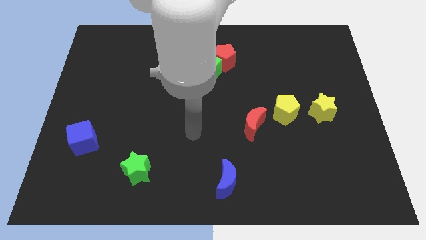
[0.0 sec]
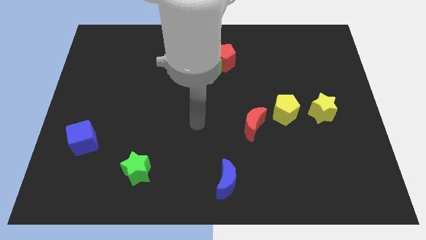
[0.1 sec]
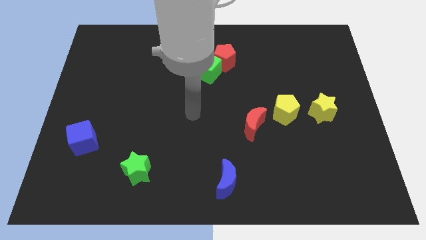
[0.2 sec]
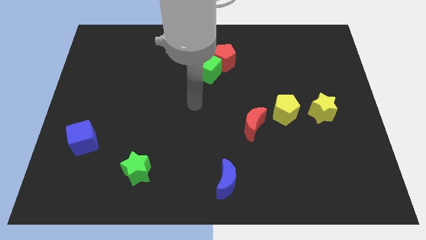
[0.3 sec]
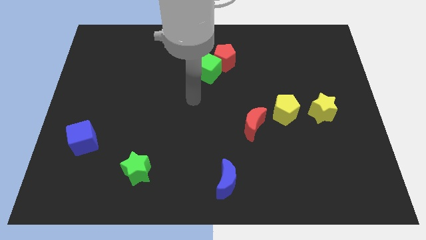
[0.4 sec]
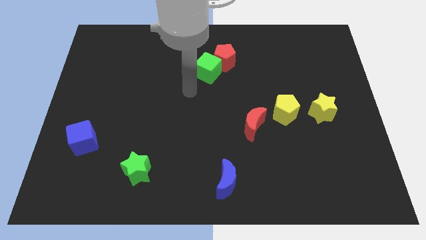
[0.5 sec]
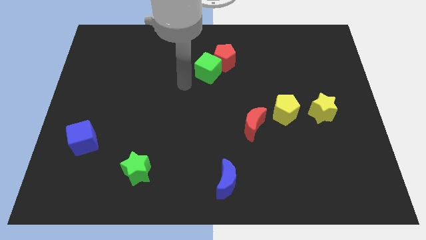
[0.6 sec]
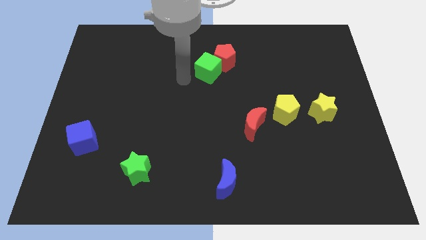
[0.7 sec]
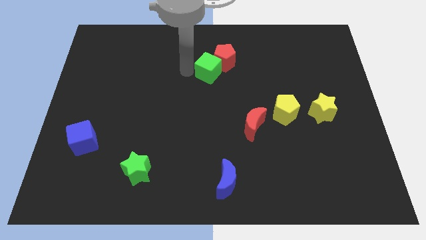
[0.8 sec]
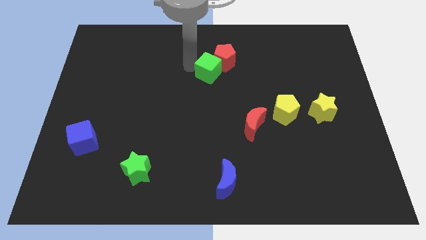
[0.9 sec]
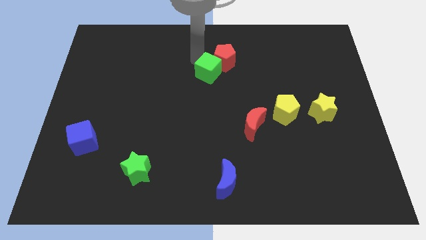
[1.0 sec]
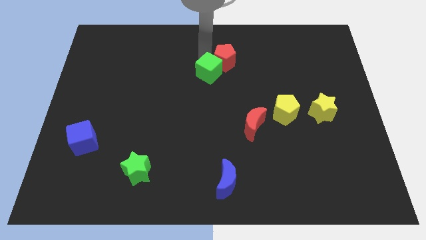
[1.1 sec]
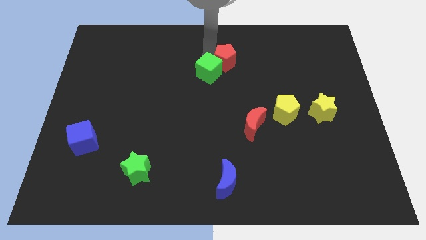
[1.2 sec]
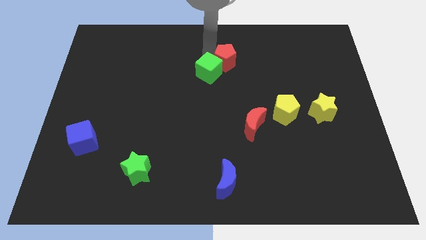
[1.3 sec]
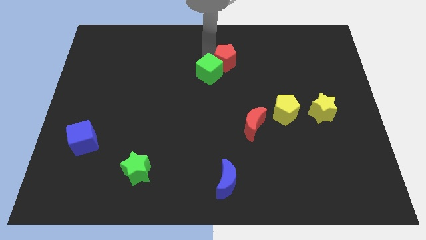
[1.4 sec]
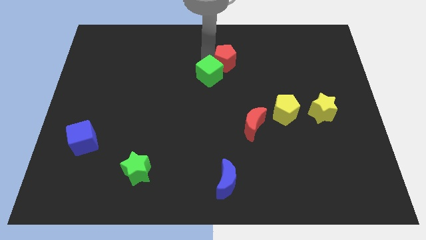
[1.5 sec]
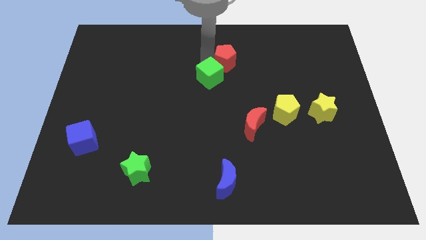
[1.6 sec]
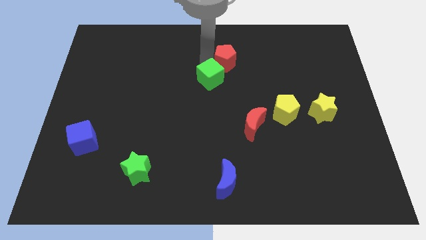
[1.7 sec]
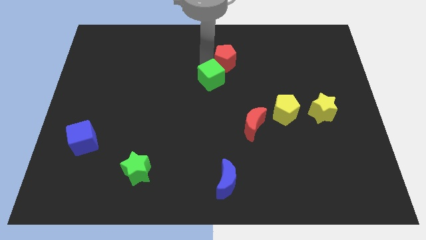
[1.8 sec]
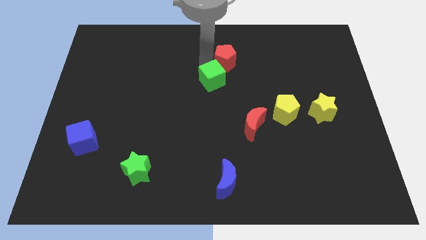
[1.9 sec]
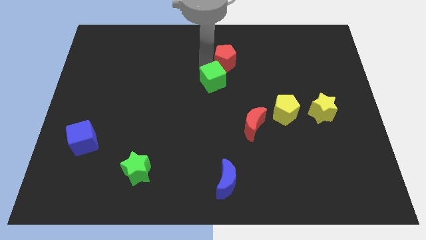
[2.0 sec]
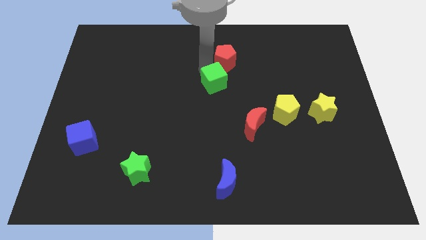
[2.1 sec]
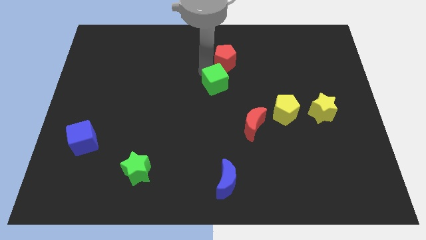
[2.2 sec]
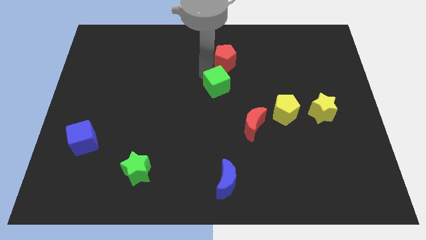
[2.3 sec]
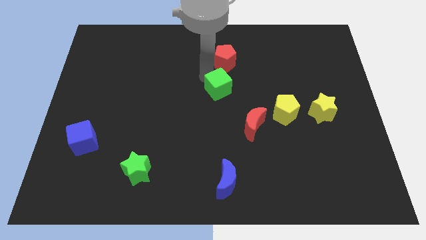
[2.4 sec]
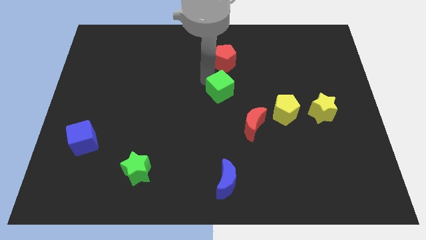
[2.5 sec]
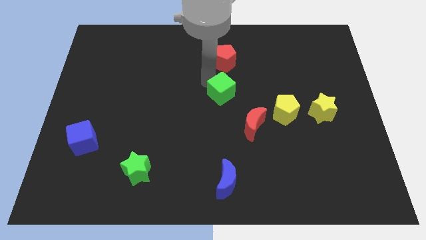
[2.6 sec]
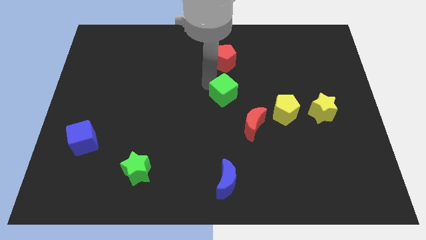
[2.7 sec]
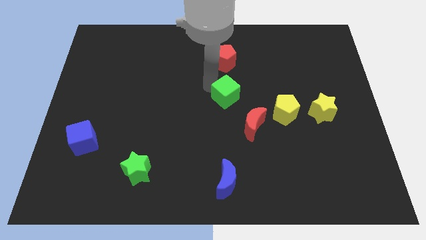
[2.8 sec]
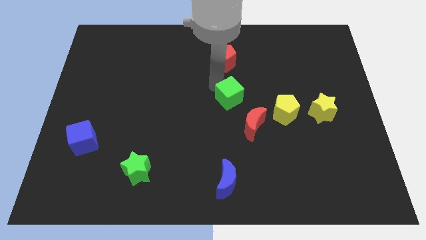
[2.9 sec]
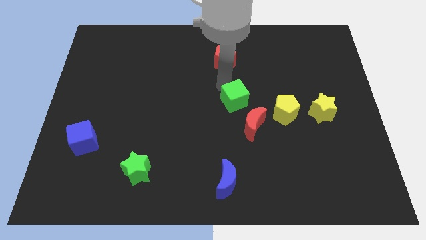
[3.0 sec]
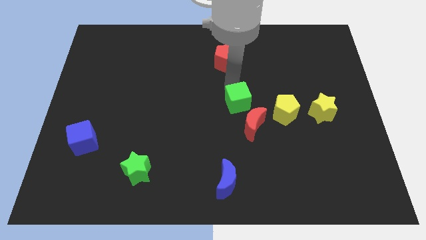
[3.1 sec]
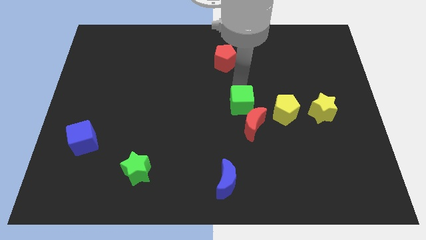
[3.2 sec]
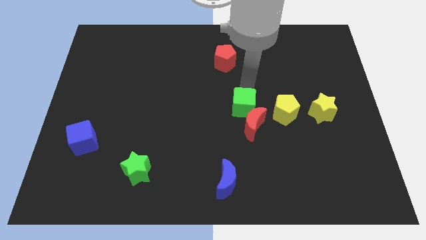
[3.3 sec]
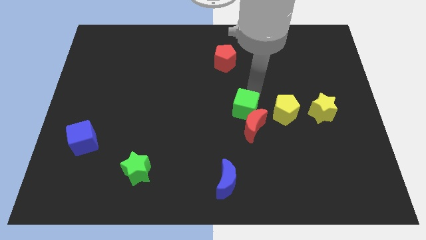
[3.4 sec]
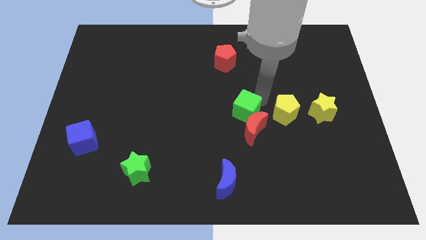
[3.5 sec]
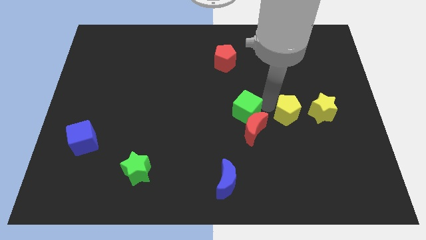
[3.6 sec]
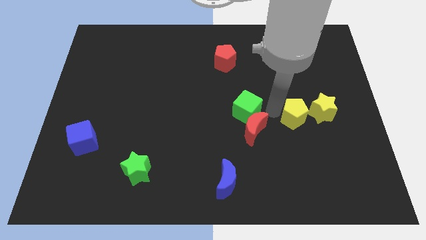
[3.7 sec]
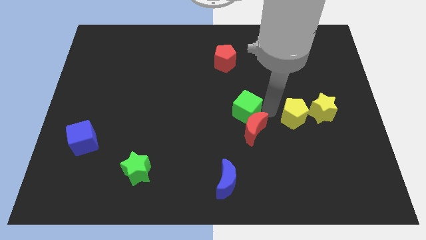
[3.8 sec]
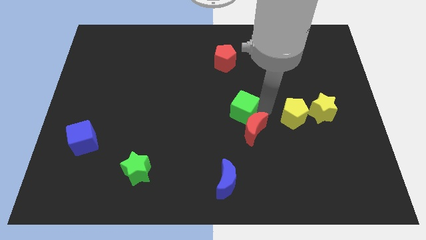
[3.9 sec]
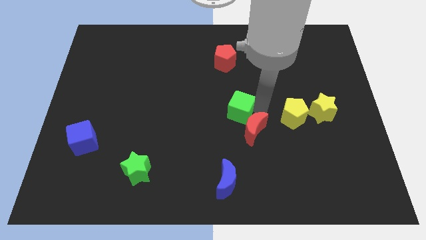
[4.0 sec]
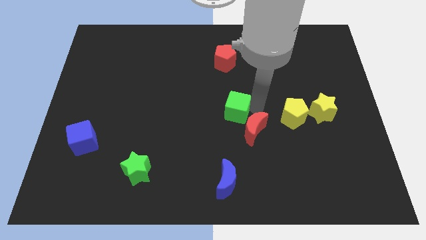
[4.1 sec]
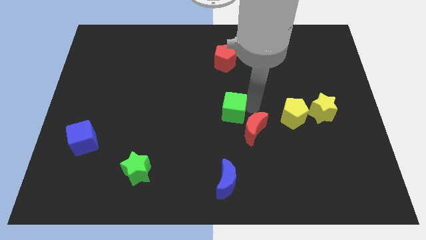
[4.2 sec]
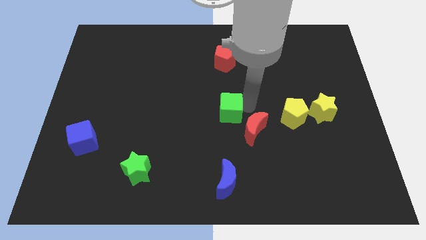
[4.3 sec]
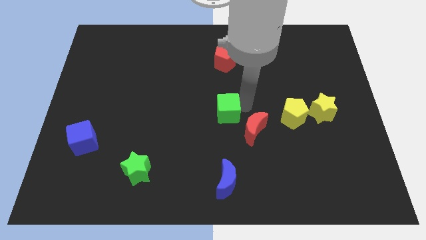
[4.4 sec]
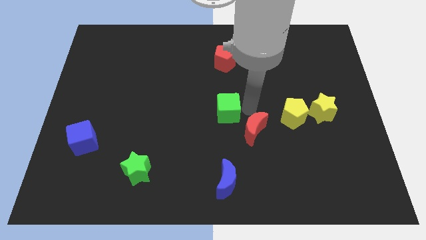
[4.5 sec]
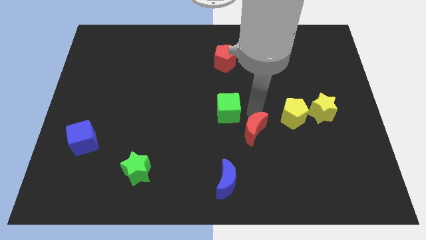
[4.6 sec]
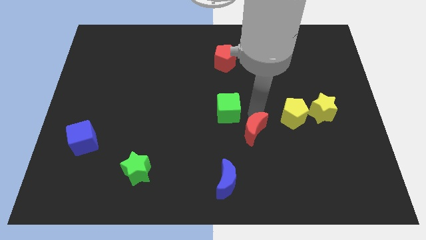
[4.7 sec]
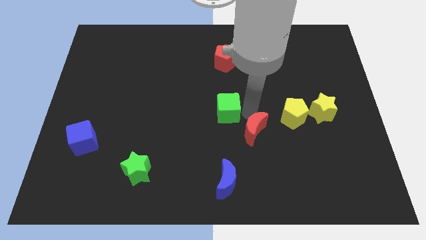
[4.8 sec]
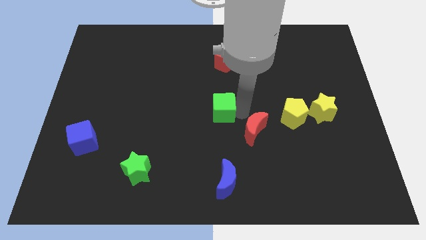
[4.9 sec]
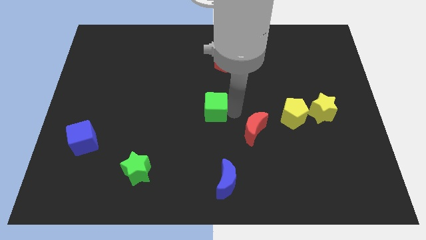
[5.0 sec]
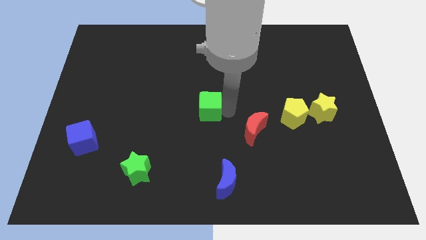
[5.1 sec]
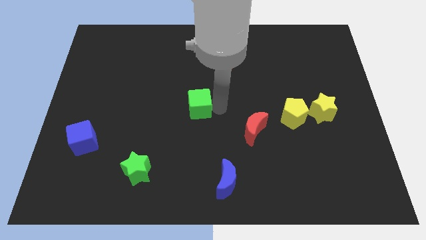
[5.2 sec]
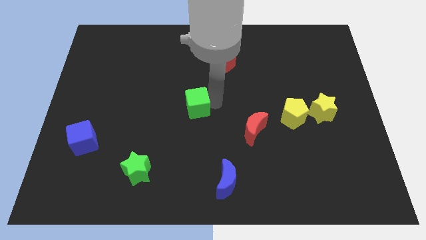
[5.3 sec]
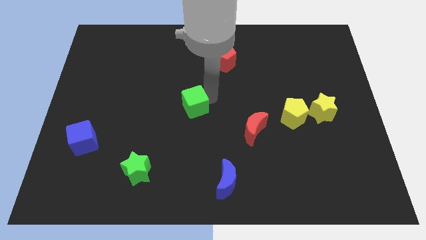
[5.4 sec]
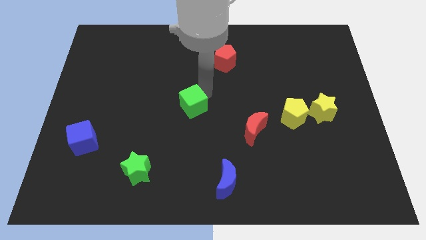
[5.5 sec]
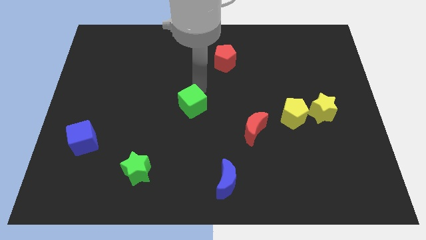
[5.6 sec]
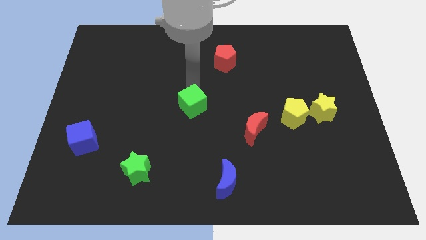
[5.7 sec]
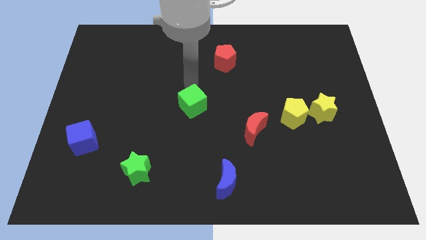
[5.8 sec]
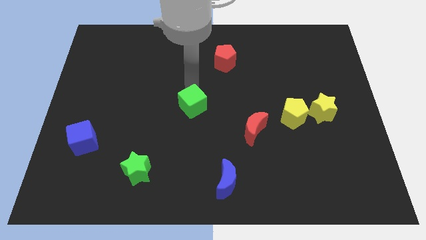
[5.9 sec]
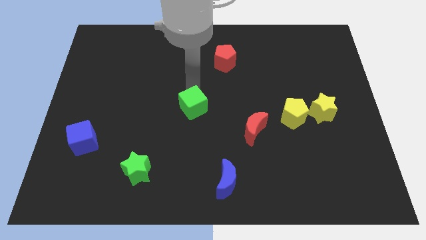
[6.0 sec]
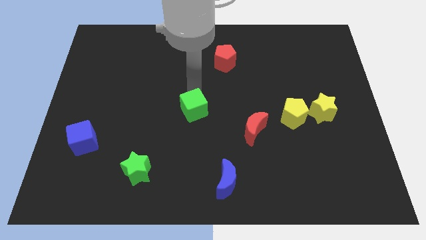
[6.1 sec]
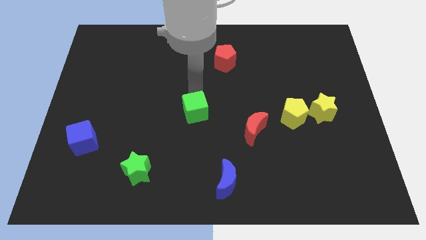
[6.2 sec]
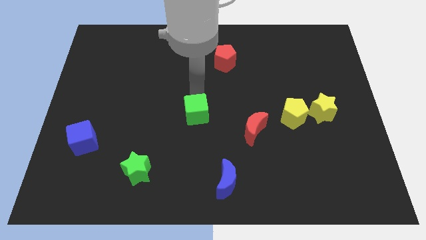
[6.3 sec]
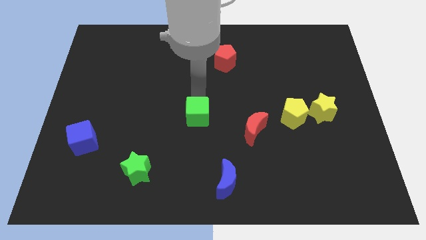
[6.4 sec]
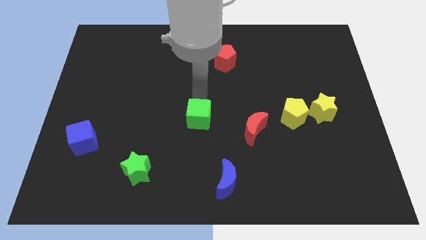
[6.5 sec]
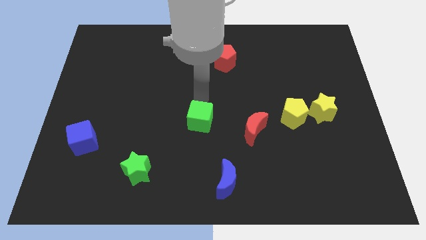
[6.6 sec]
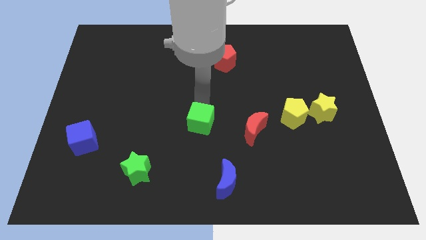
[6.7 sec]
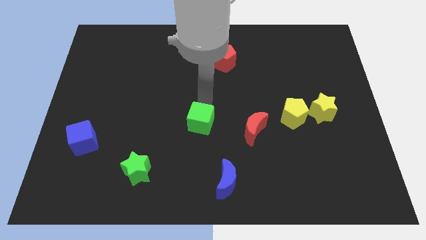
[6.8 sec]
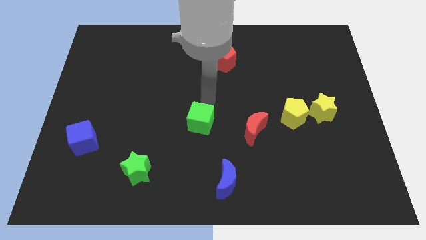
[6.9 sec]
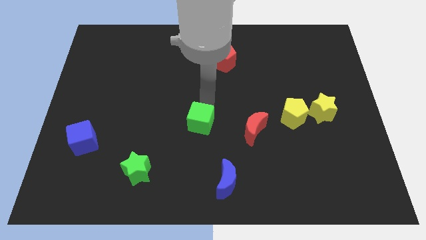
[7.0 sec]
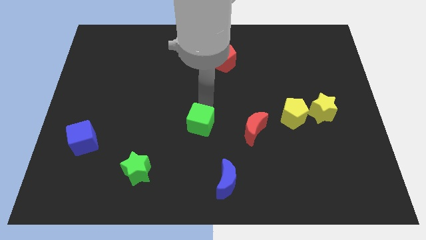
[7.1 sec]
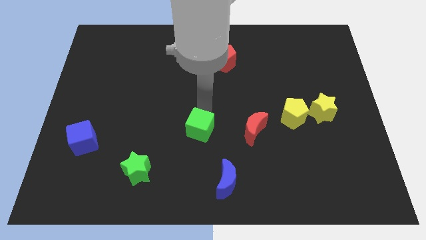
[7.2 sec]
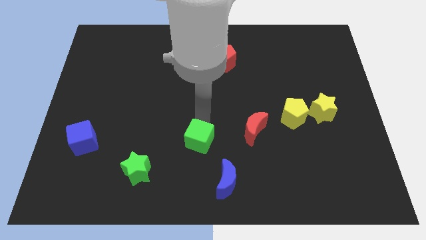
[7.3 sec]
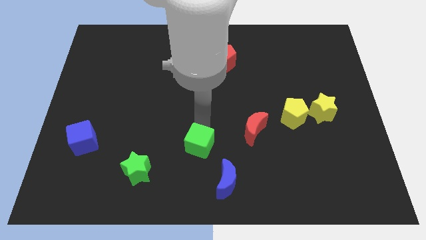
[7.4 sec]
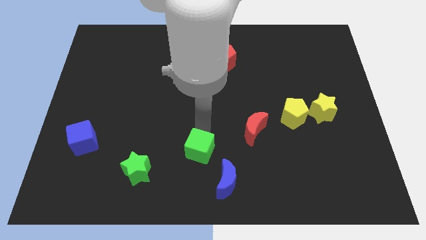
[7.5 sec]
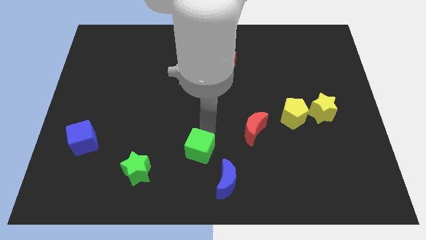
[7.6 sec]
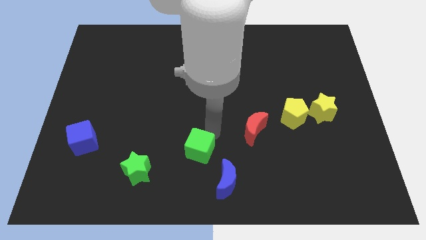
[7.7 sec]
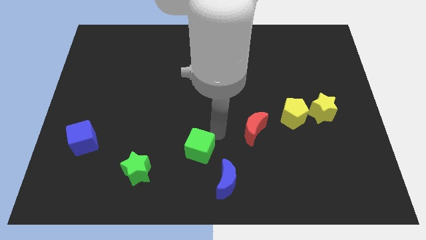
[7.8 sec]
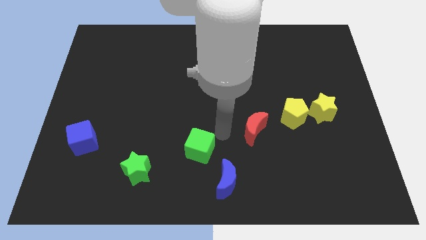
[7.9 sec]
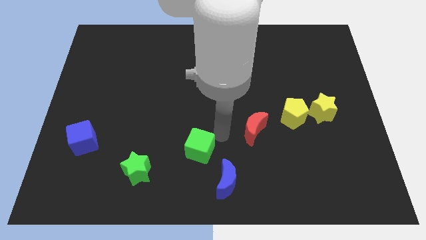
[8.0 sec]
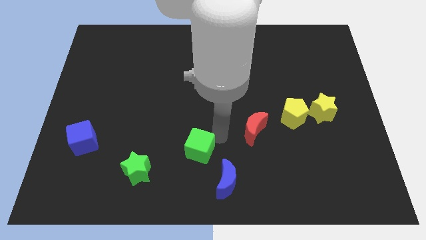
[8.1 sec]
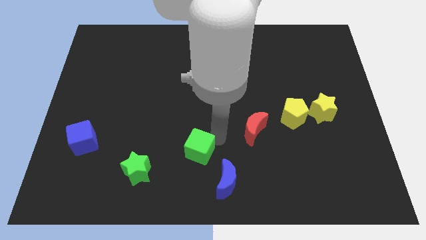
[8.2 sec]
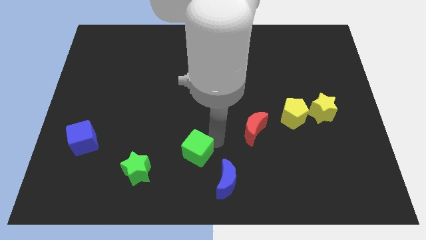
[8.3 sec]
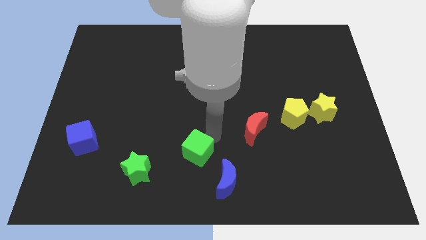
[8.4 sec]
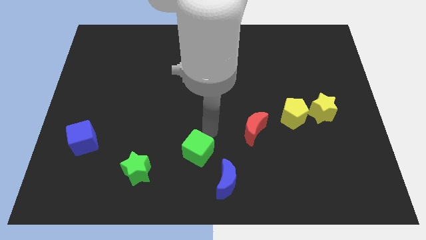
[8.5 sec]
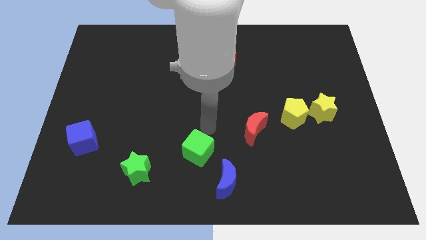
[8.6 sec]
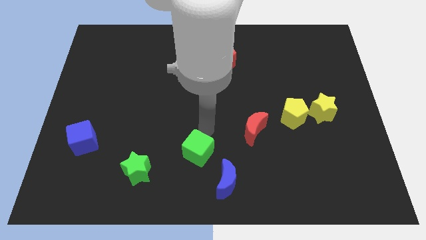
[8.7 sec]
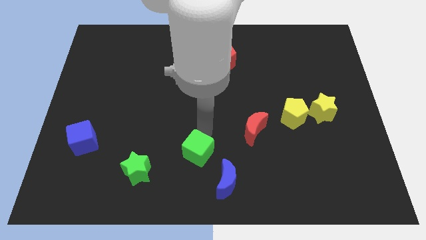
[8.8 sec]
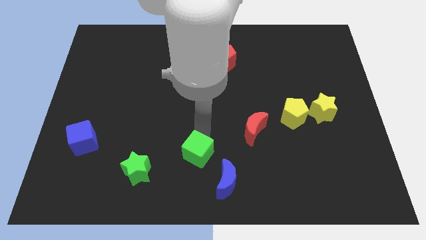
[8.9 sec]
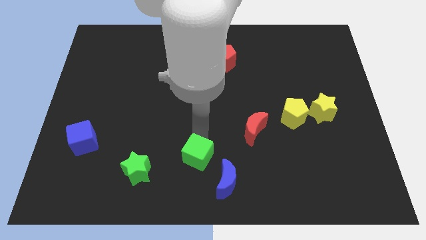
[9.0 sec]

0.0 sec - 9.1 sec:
move the green cube to the bottom
